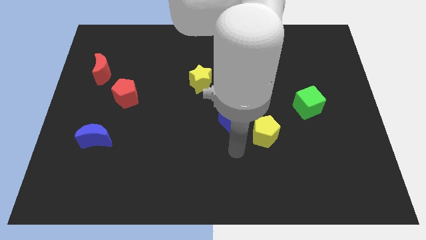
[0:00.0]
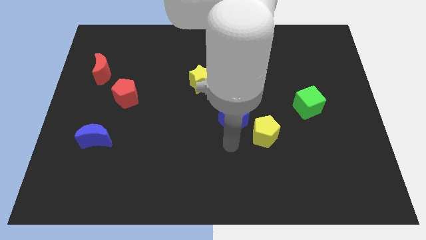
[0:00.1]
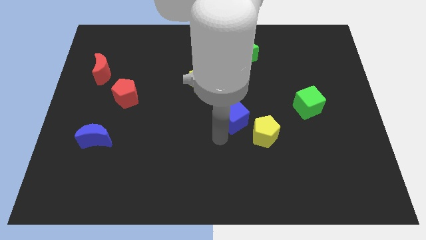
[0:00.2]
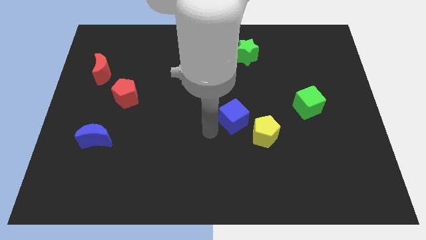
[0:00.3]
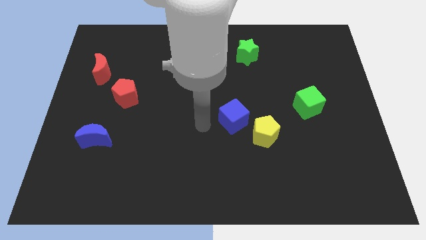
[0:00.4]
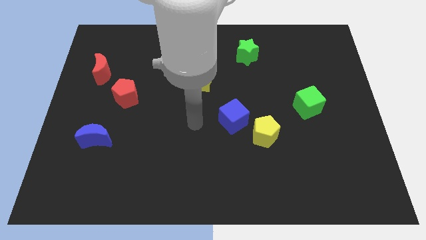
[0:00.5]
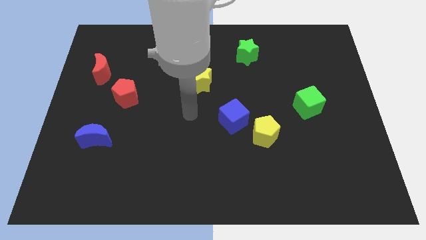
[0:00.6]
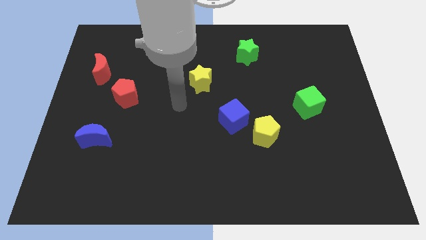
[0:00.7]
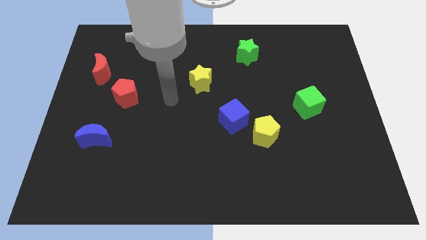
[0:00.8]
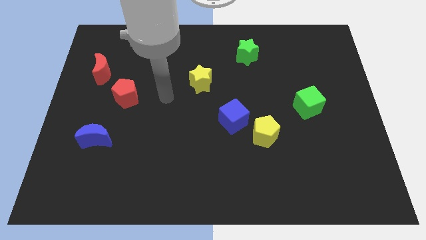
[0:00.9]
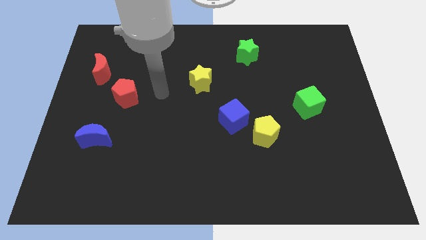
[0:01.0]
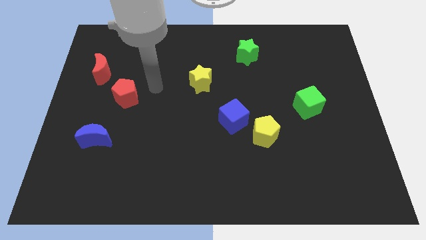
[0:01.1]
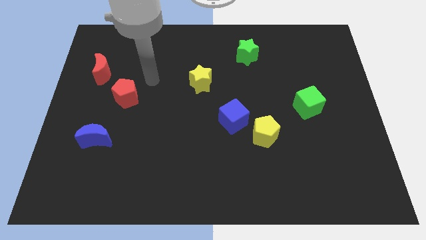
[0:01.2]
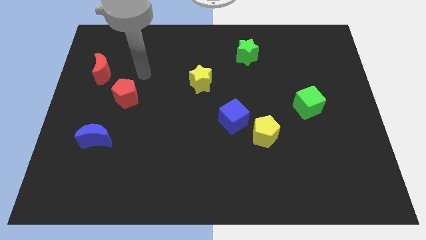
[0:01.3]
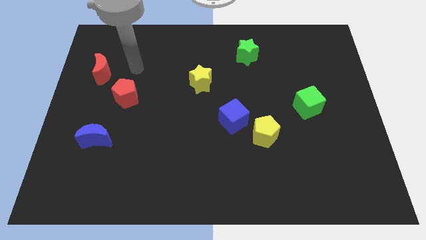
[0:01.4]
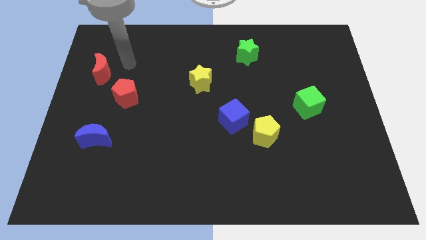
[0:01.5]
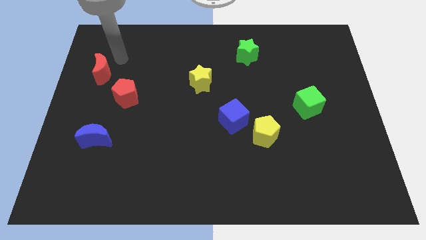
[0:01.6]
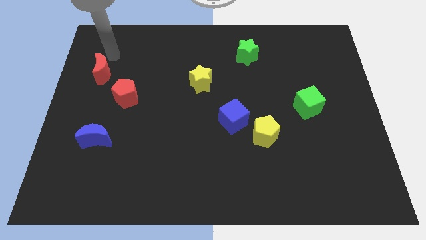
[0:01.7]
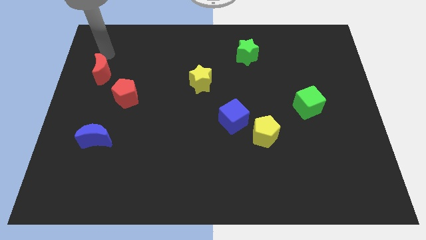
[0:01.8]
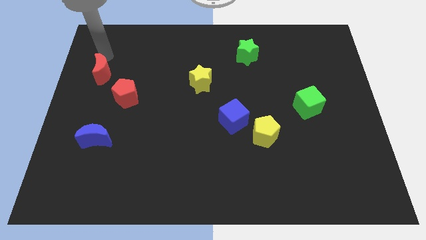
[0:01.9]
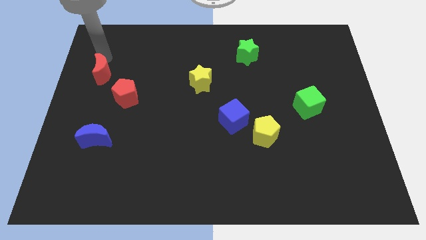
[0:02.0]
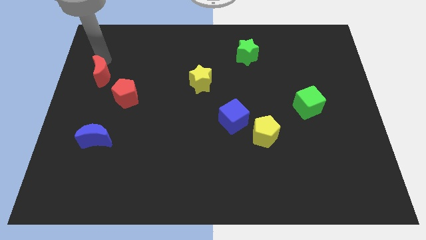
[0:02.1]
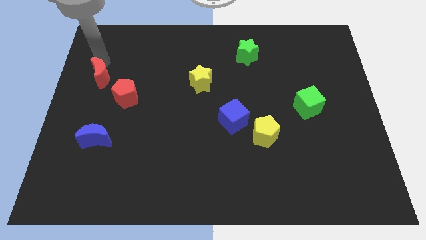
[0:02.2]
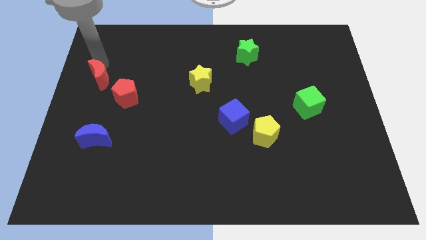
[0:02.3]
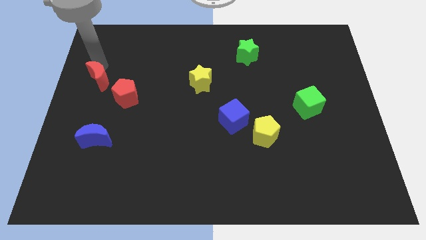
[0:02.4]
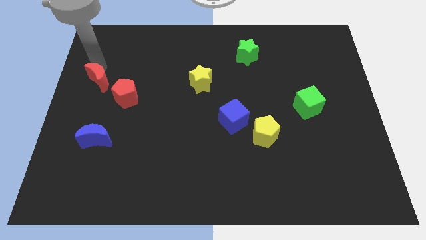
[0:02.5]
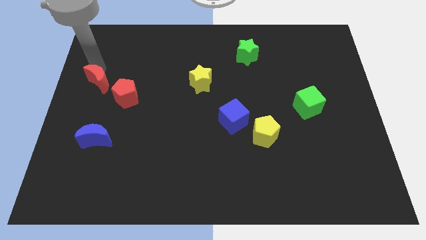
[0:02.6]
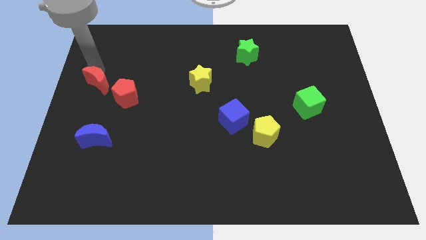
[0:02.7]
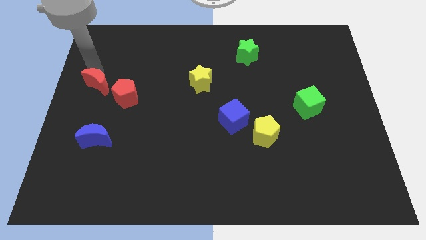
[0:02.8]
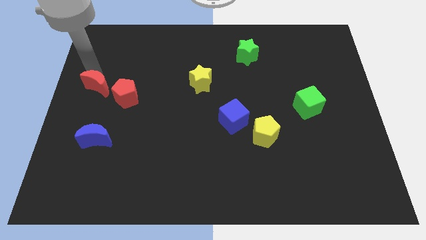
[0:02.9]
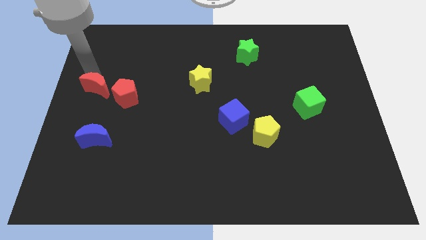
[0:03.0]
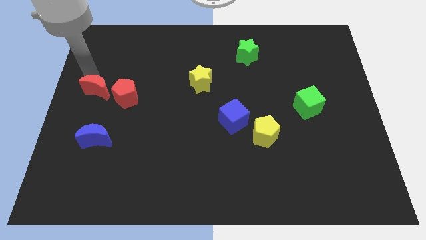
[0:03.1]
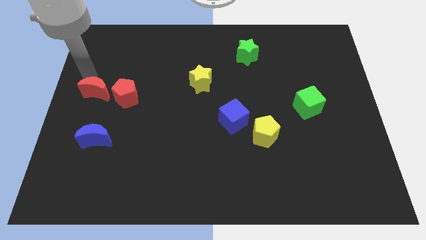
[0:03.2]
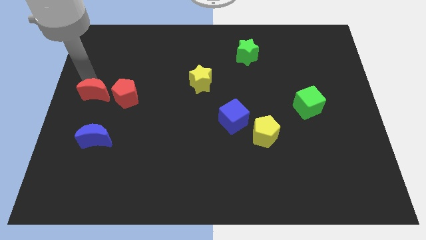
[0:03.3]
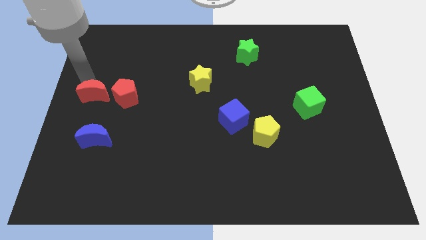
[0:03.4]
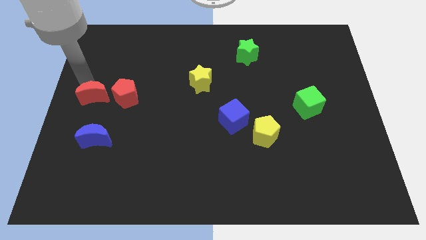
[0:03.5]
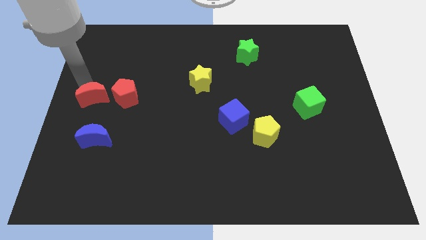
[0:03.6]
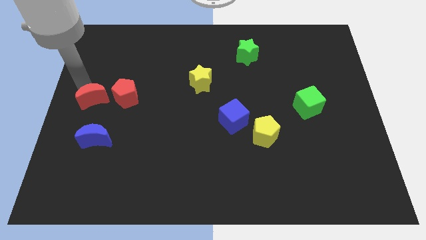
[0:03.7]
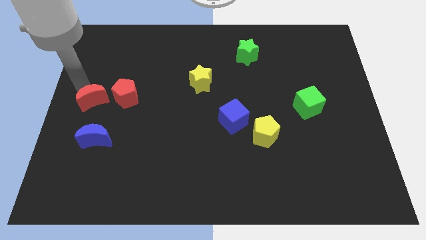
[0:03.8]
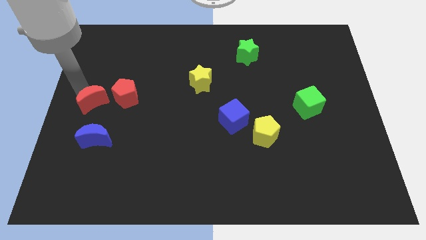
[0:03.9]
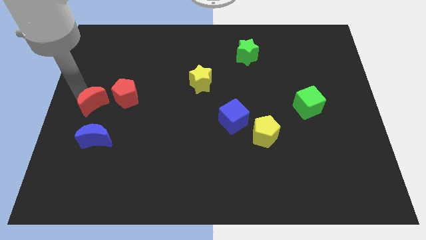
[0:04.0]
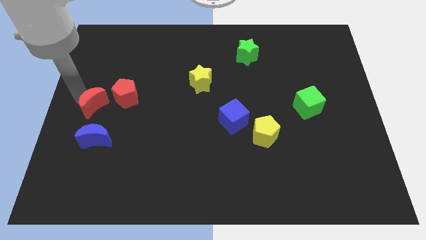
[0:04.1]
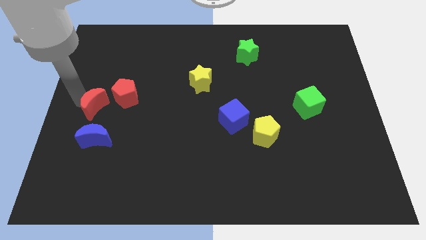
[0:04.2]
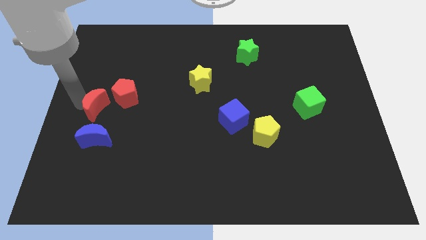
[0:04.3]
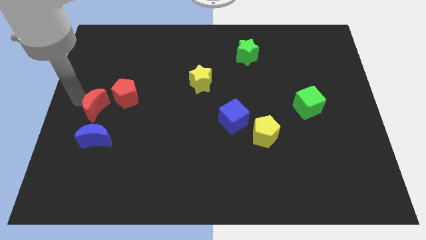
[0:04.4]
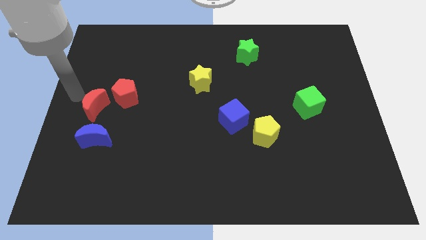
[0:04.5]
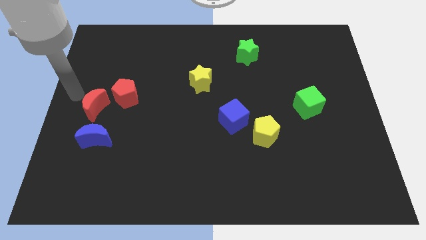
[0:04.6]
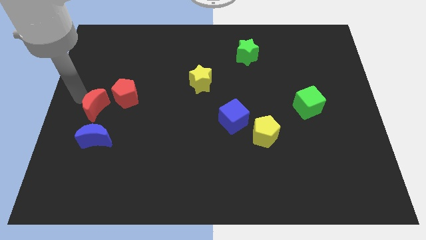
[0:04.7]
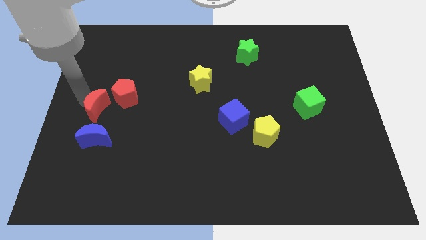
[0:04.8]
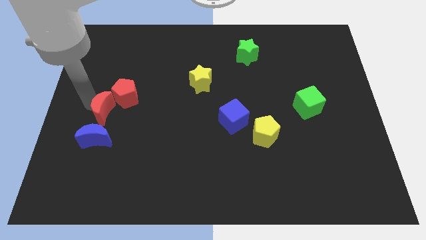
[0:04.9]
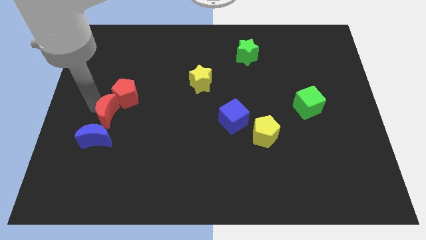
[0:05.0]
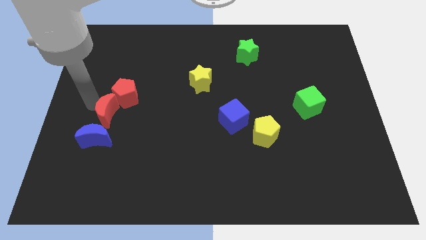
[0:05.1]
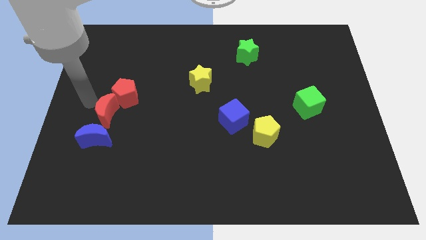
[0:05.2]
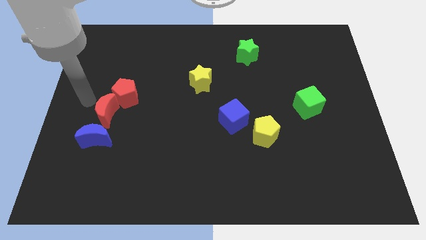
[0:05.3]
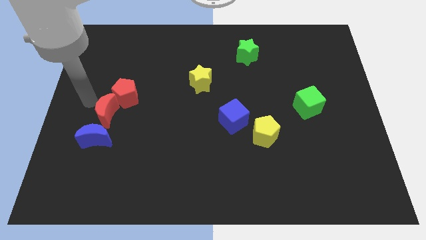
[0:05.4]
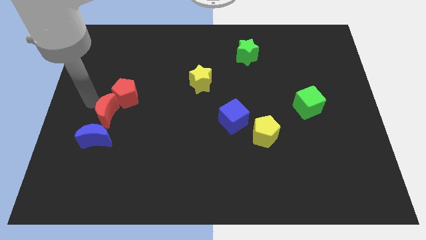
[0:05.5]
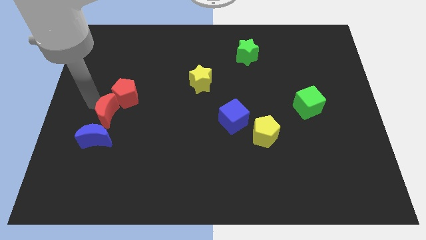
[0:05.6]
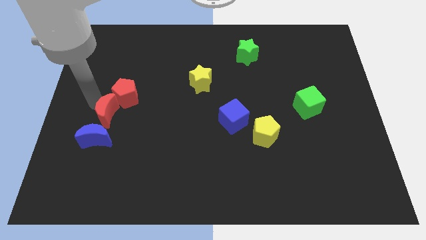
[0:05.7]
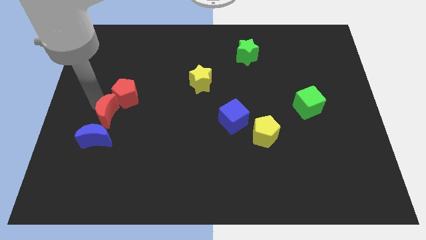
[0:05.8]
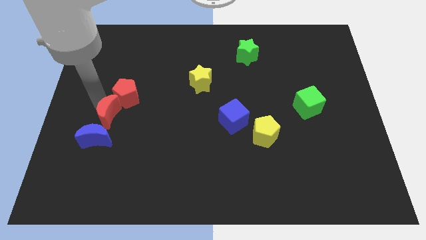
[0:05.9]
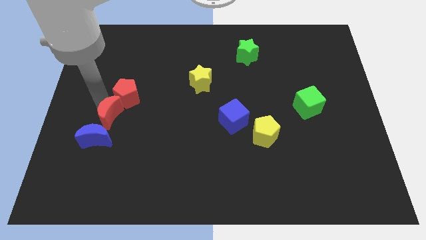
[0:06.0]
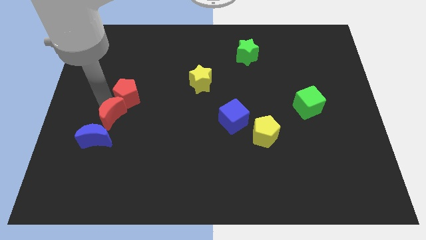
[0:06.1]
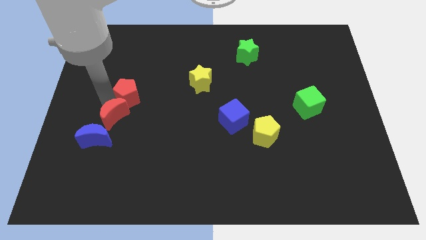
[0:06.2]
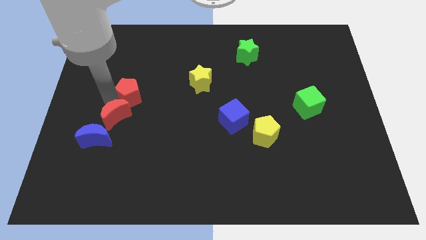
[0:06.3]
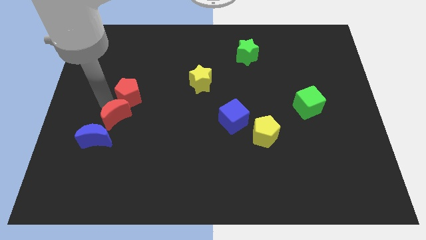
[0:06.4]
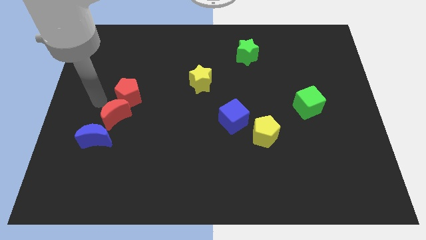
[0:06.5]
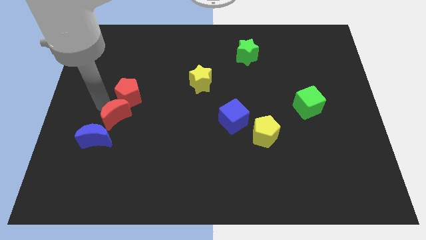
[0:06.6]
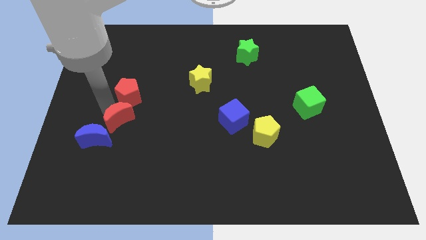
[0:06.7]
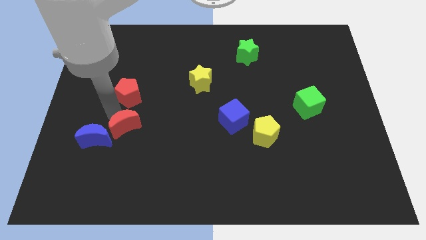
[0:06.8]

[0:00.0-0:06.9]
move the red moon just right of the blue moon
